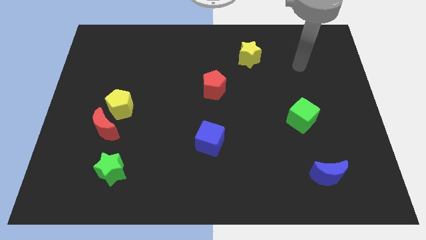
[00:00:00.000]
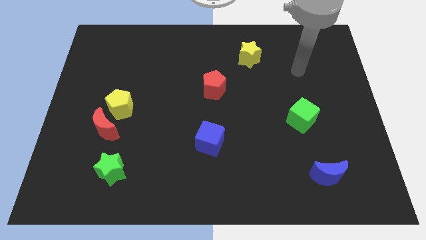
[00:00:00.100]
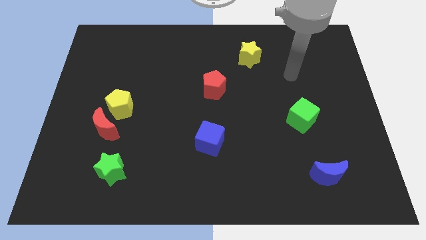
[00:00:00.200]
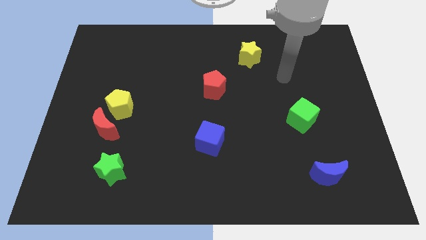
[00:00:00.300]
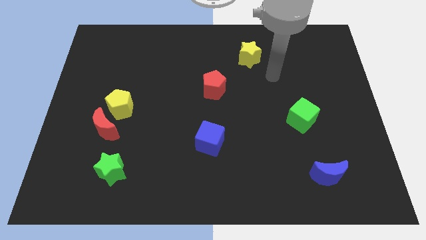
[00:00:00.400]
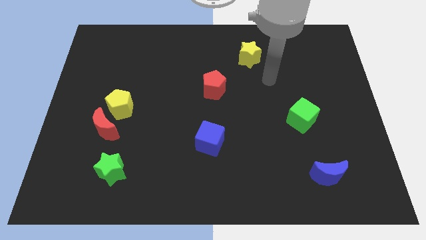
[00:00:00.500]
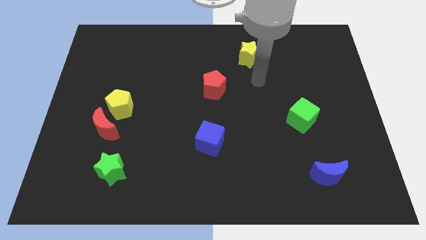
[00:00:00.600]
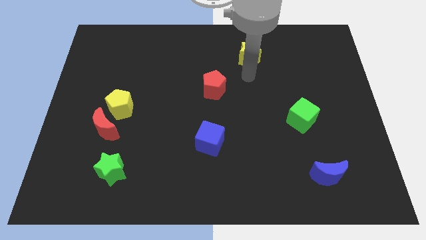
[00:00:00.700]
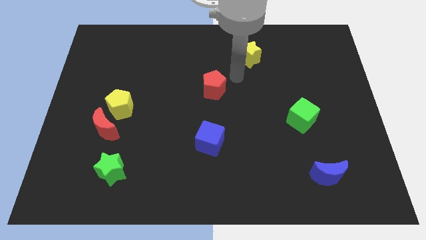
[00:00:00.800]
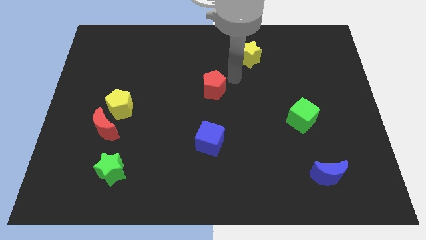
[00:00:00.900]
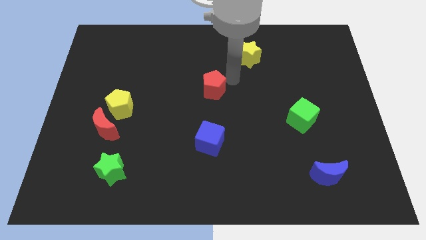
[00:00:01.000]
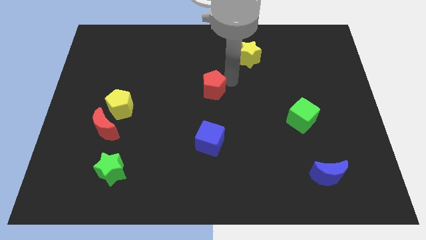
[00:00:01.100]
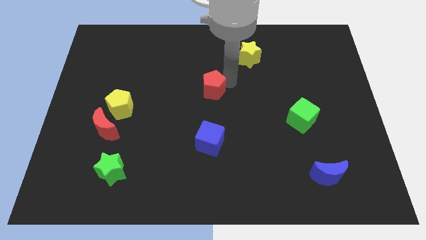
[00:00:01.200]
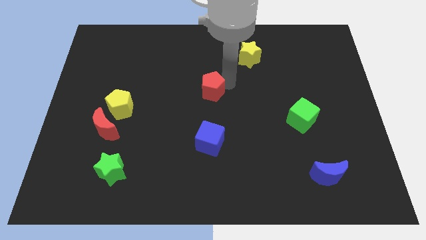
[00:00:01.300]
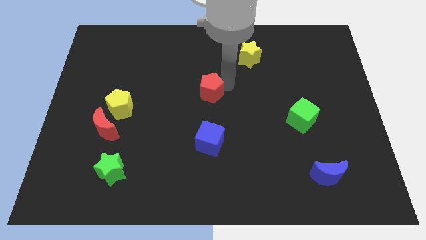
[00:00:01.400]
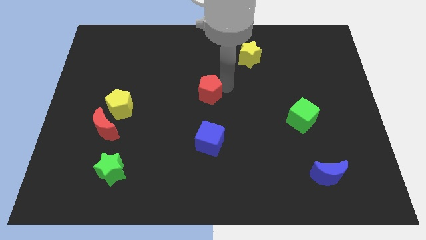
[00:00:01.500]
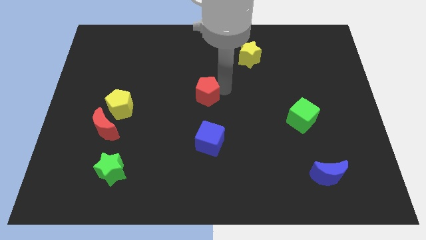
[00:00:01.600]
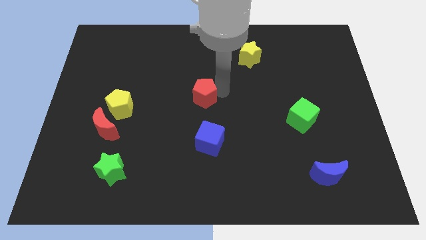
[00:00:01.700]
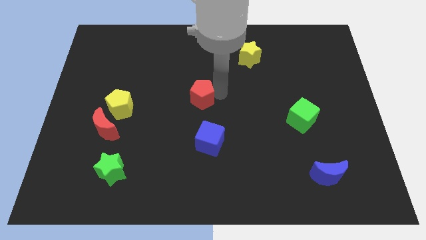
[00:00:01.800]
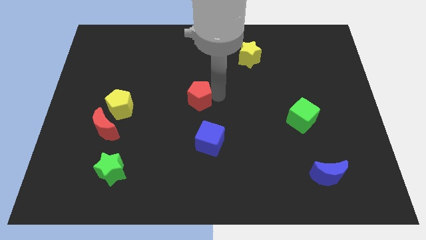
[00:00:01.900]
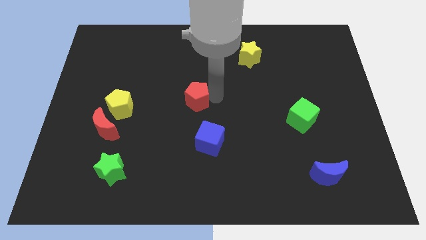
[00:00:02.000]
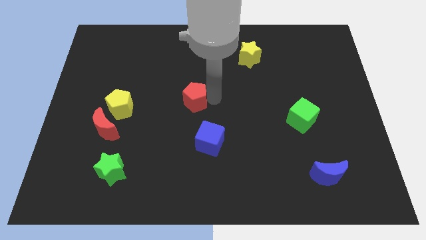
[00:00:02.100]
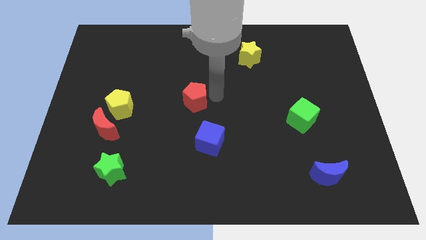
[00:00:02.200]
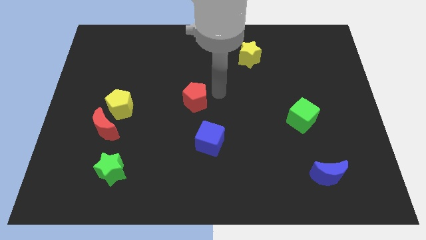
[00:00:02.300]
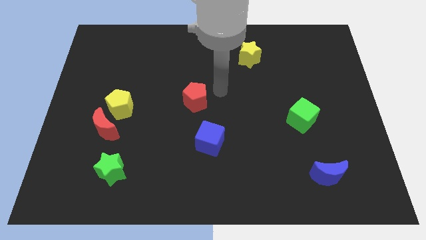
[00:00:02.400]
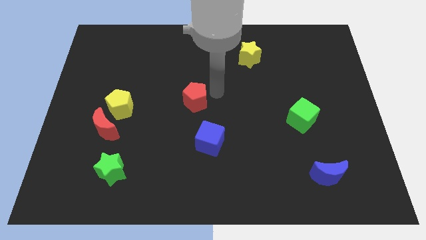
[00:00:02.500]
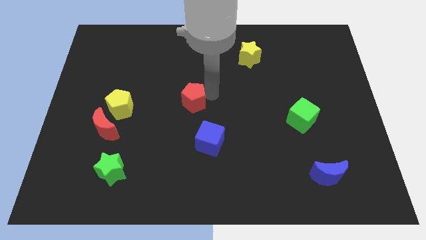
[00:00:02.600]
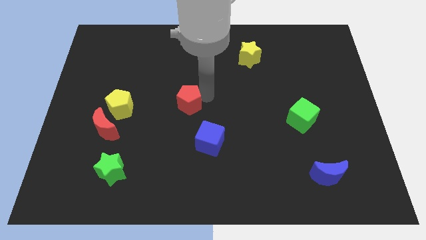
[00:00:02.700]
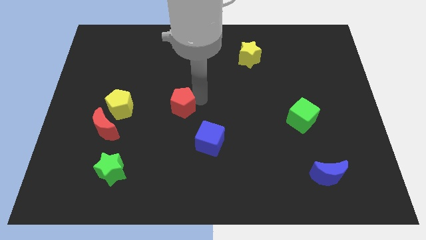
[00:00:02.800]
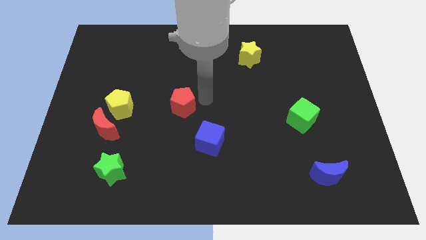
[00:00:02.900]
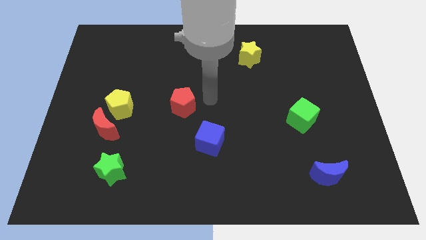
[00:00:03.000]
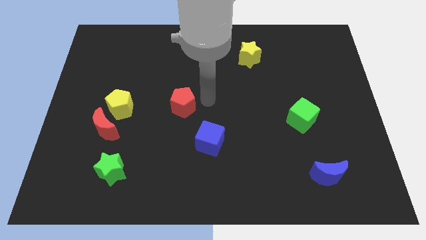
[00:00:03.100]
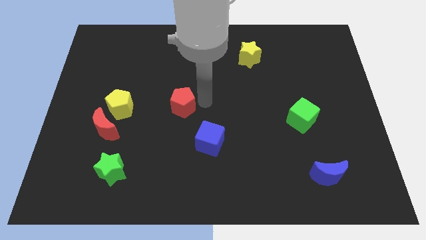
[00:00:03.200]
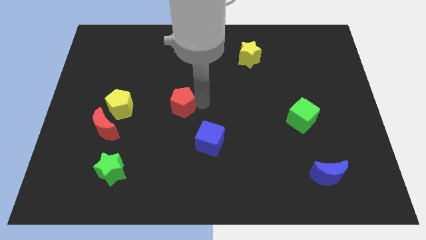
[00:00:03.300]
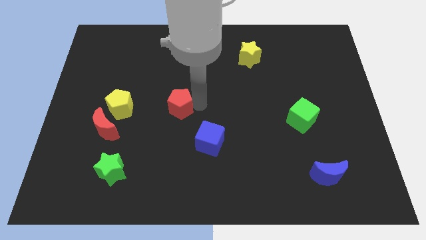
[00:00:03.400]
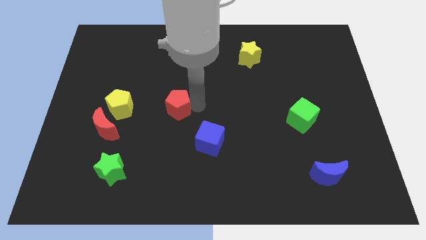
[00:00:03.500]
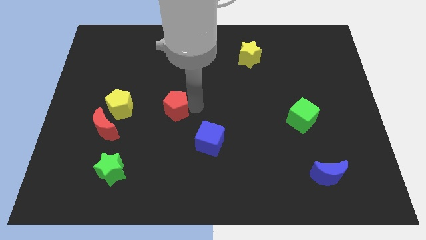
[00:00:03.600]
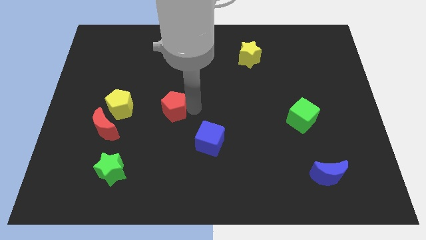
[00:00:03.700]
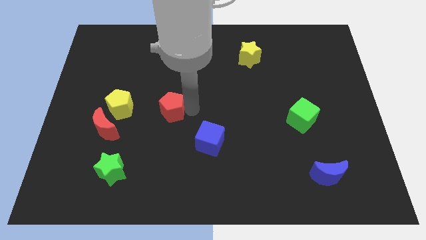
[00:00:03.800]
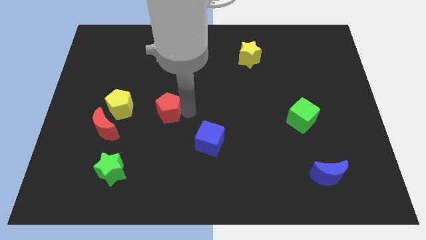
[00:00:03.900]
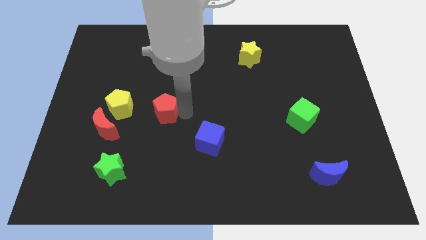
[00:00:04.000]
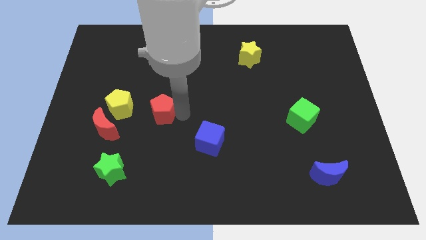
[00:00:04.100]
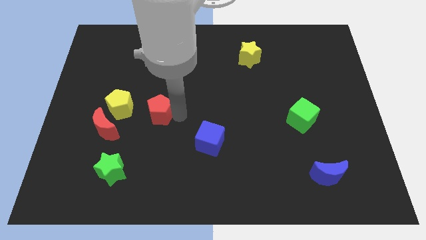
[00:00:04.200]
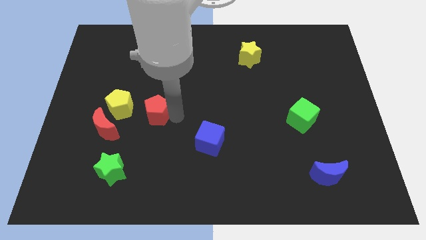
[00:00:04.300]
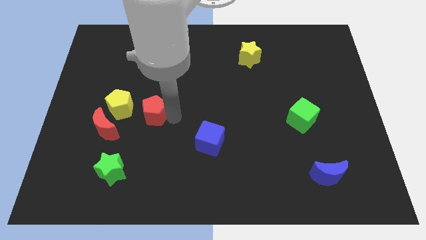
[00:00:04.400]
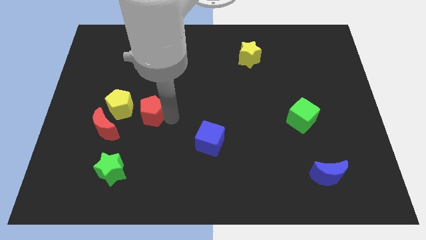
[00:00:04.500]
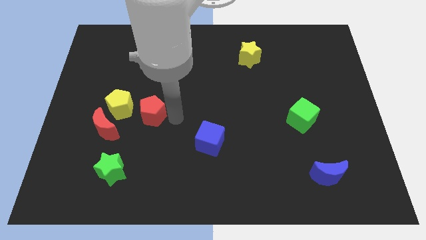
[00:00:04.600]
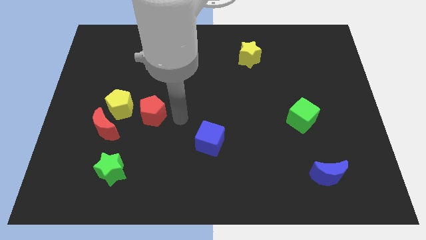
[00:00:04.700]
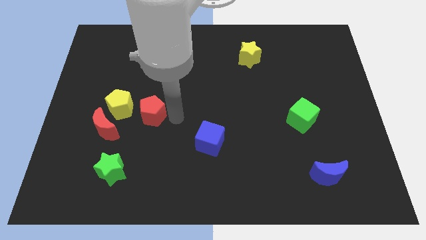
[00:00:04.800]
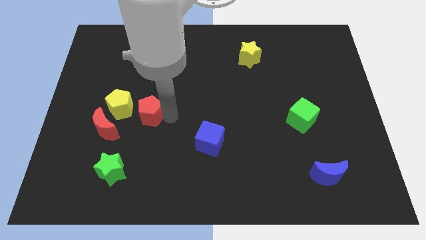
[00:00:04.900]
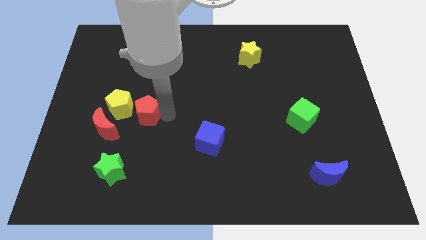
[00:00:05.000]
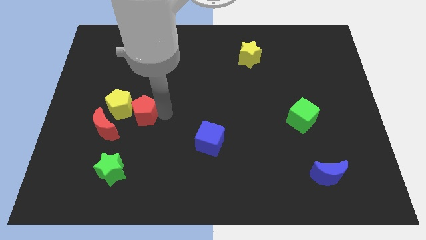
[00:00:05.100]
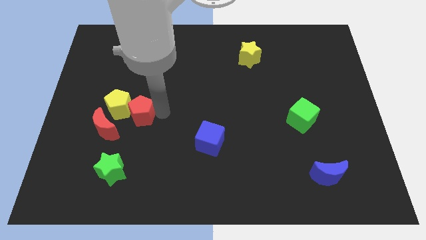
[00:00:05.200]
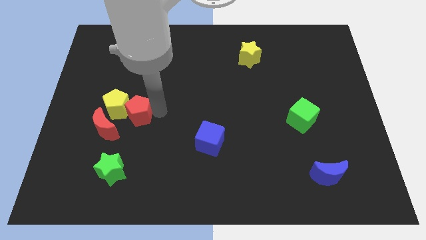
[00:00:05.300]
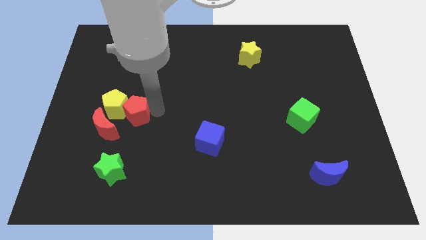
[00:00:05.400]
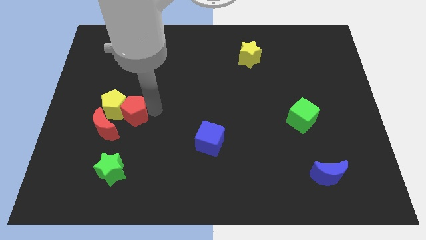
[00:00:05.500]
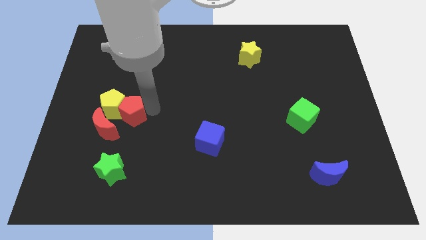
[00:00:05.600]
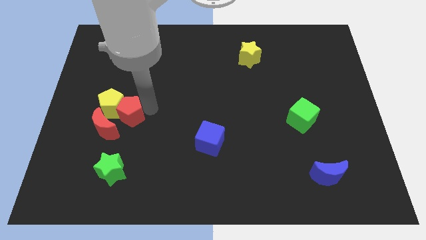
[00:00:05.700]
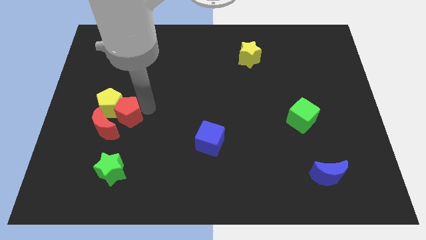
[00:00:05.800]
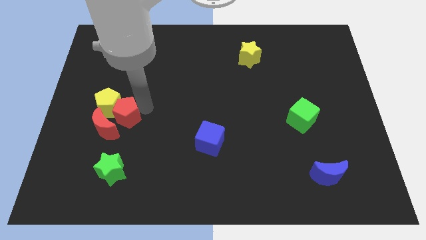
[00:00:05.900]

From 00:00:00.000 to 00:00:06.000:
put the red pentagon next to the red moon
